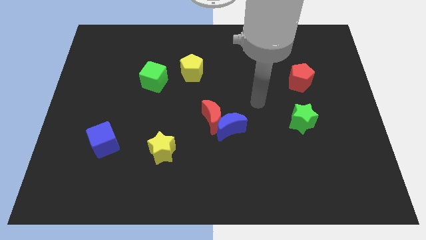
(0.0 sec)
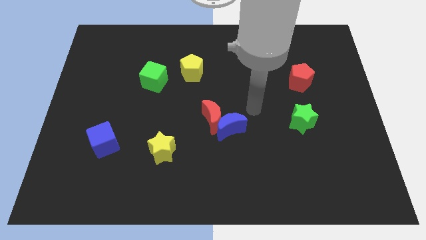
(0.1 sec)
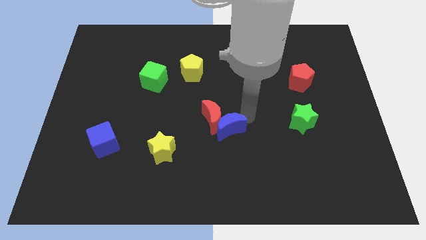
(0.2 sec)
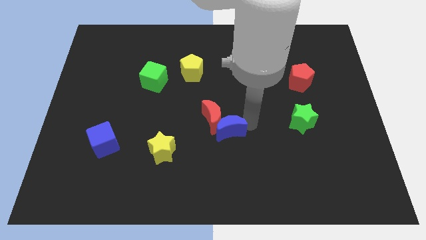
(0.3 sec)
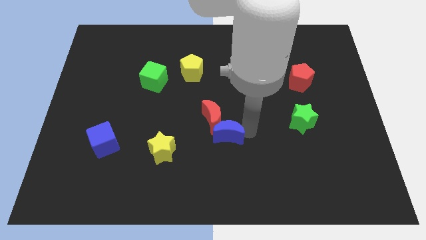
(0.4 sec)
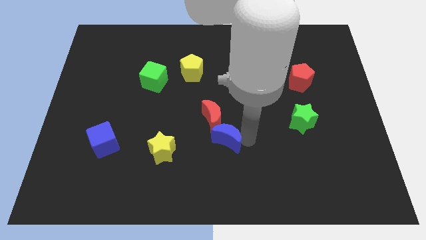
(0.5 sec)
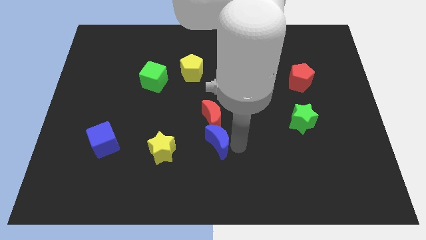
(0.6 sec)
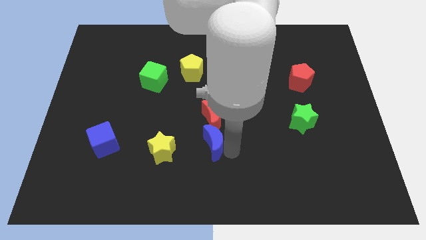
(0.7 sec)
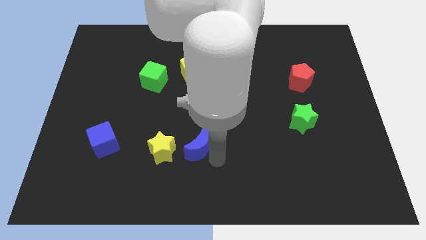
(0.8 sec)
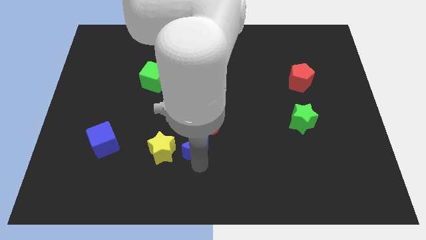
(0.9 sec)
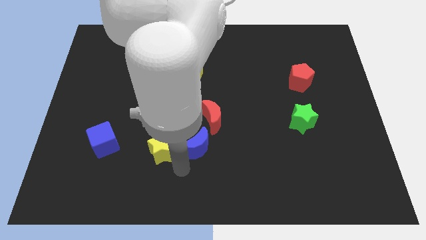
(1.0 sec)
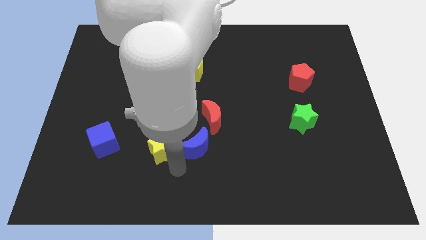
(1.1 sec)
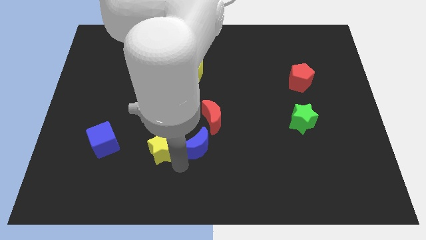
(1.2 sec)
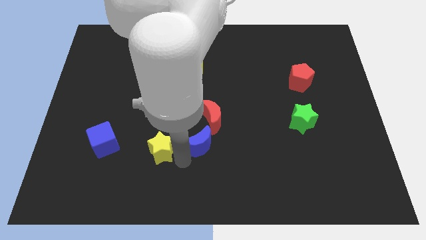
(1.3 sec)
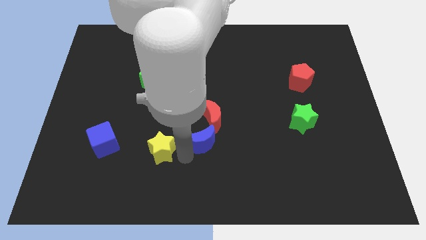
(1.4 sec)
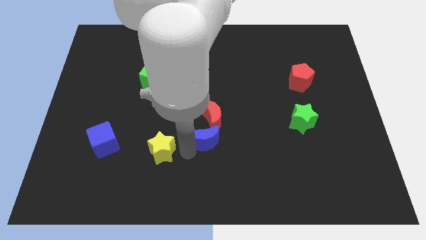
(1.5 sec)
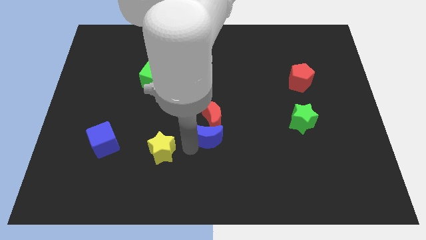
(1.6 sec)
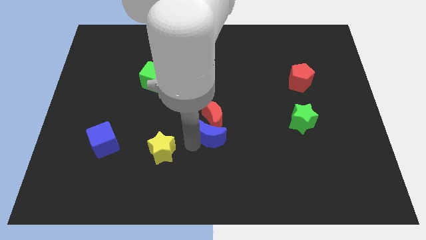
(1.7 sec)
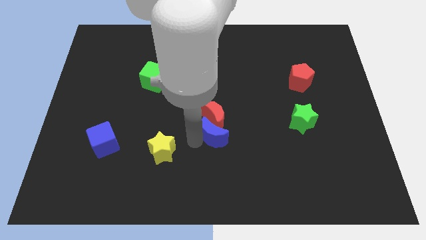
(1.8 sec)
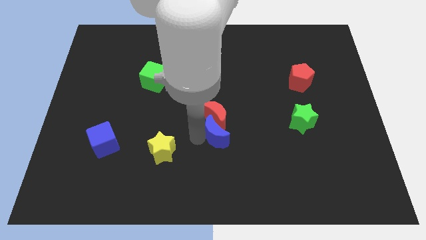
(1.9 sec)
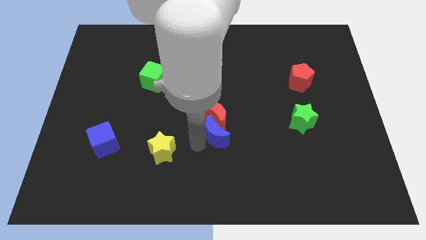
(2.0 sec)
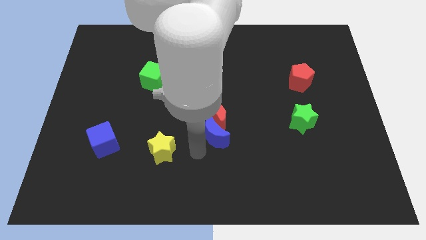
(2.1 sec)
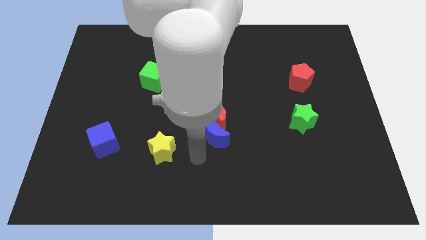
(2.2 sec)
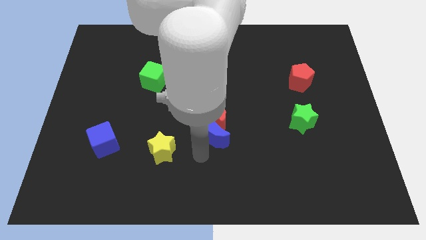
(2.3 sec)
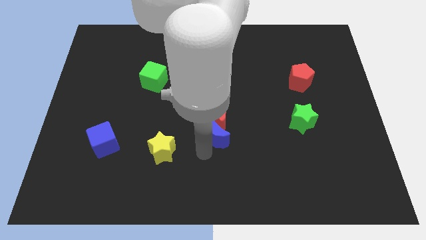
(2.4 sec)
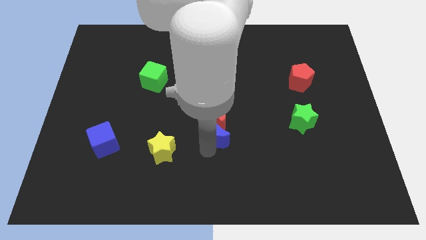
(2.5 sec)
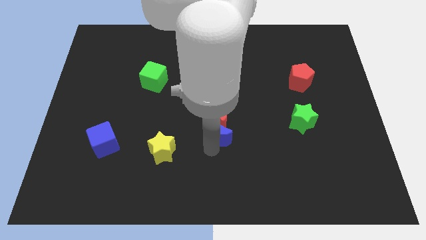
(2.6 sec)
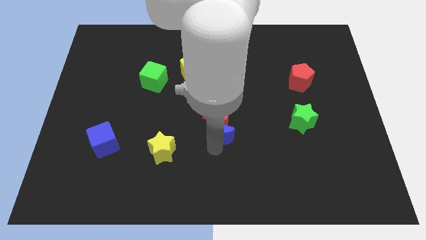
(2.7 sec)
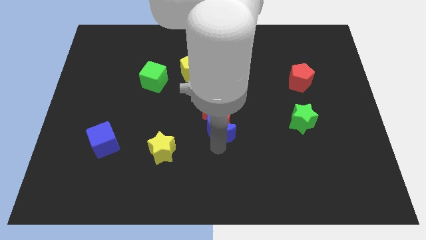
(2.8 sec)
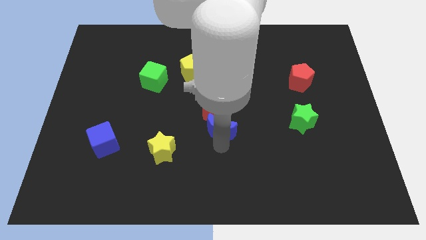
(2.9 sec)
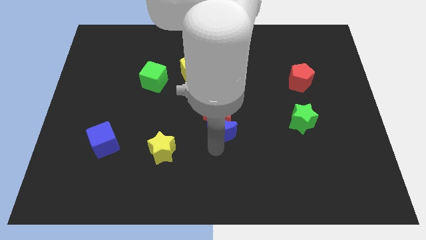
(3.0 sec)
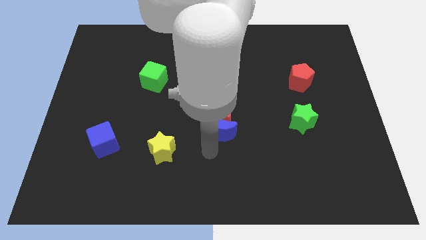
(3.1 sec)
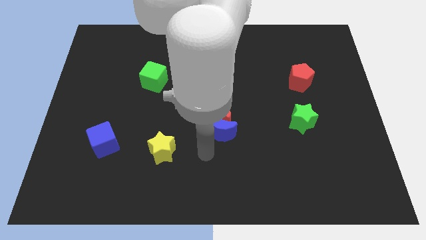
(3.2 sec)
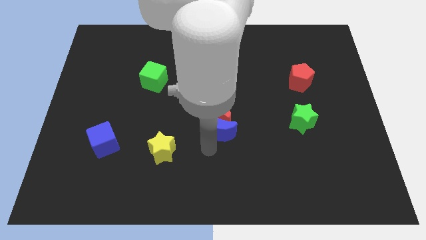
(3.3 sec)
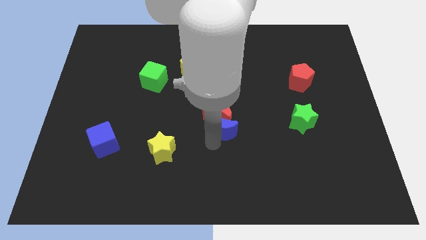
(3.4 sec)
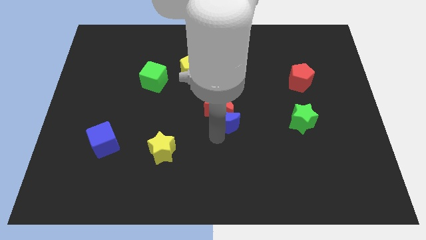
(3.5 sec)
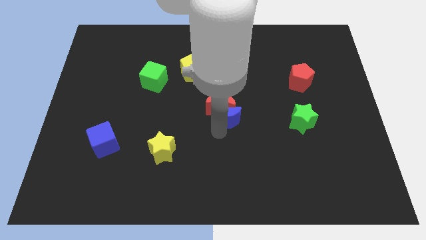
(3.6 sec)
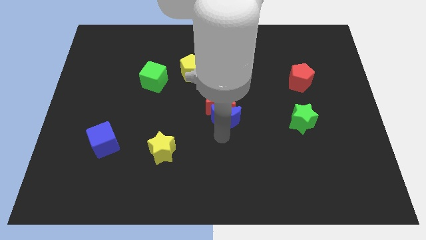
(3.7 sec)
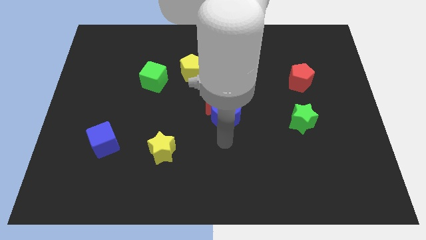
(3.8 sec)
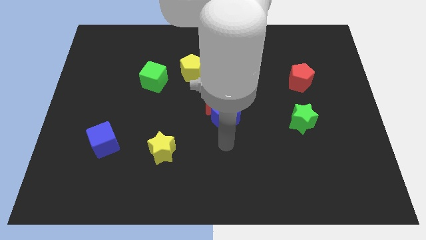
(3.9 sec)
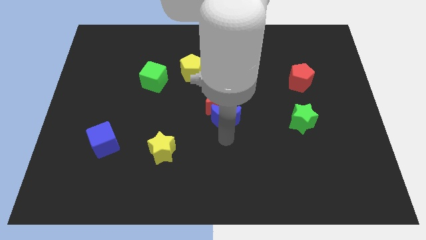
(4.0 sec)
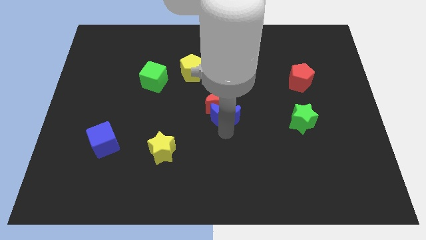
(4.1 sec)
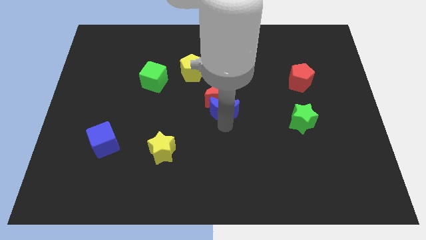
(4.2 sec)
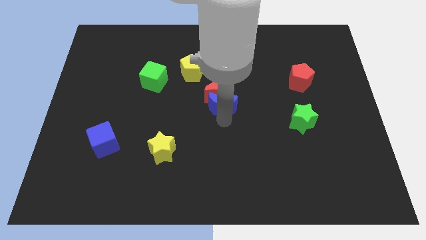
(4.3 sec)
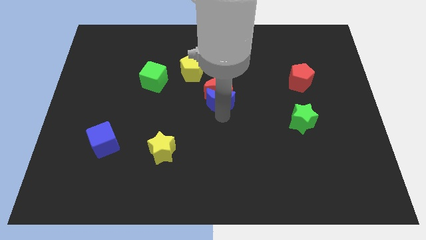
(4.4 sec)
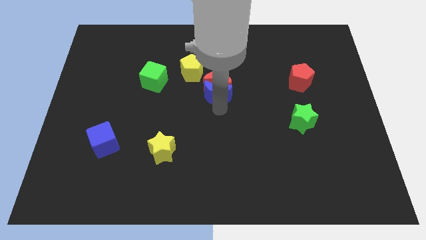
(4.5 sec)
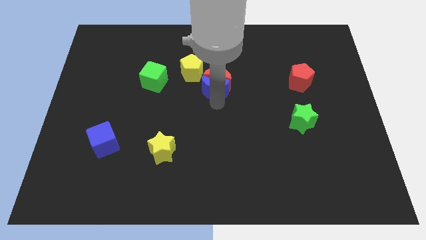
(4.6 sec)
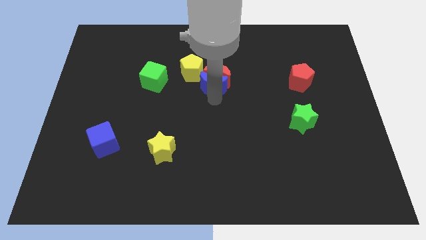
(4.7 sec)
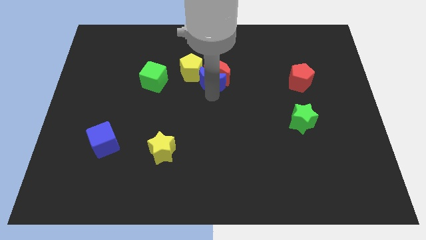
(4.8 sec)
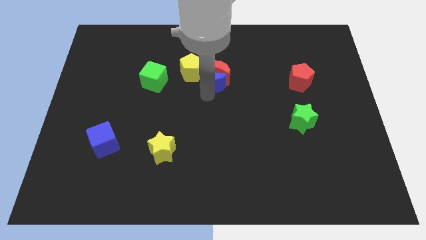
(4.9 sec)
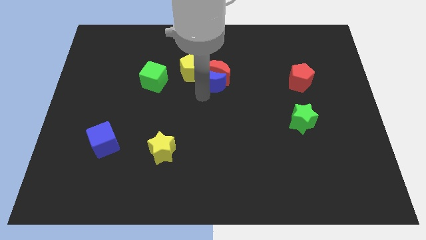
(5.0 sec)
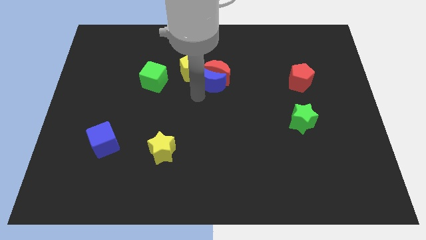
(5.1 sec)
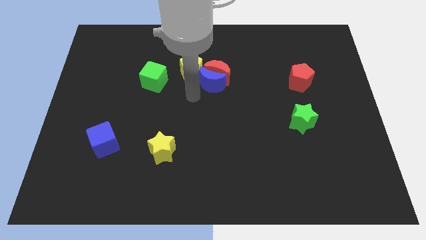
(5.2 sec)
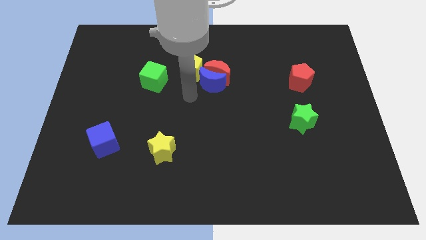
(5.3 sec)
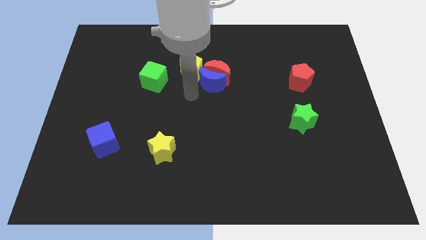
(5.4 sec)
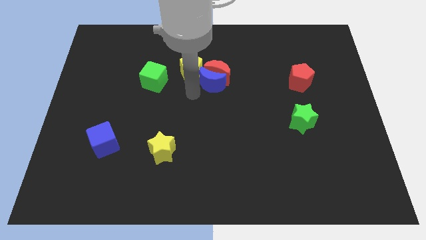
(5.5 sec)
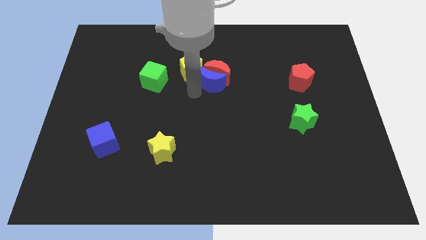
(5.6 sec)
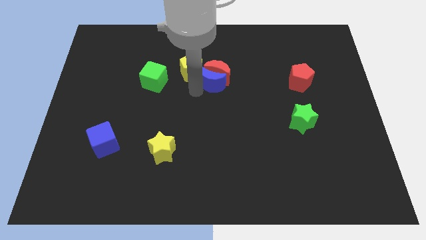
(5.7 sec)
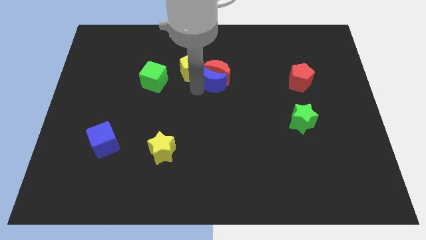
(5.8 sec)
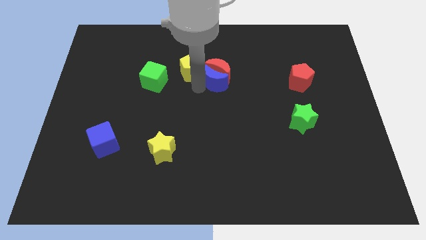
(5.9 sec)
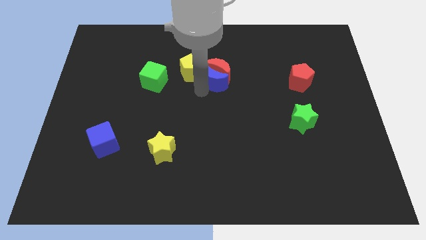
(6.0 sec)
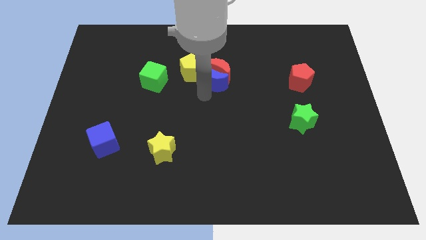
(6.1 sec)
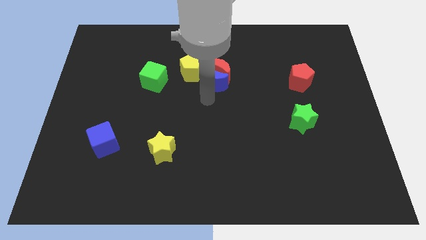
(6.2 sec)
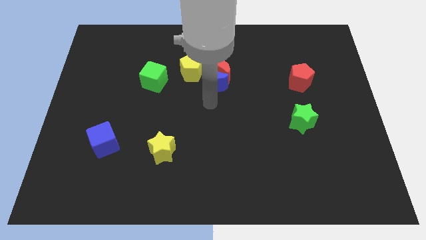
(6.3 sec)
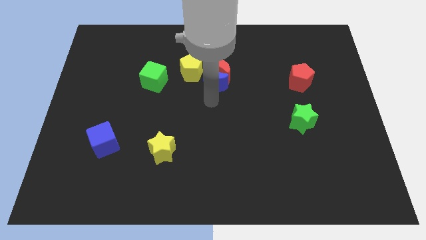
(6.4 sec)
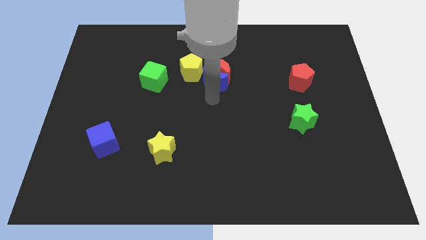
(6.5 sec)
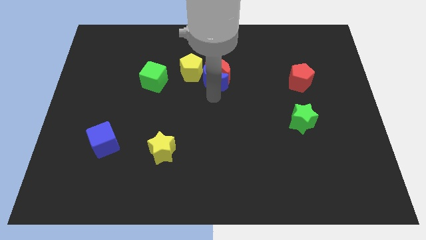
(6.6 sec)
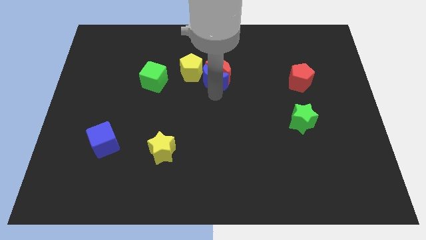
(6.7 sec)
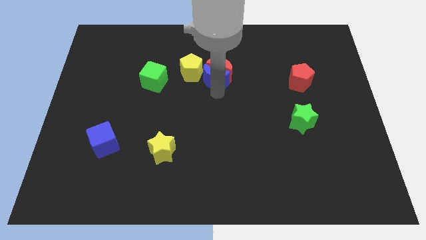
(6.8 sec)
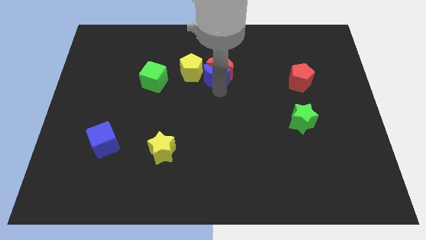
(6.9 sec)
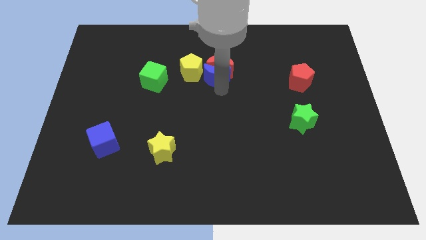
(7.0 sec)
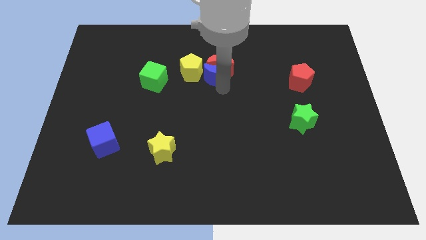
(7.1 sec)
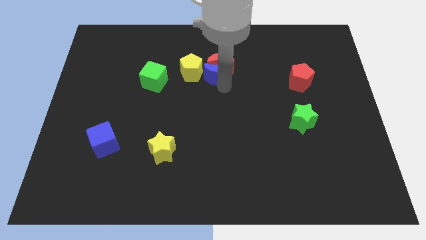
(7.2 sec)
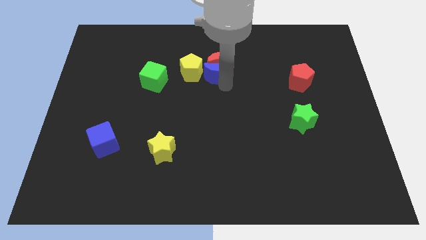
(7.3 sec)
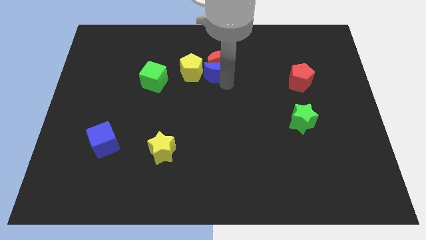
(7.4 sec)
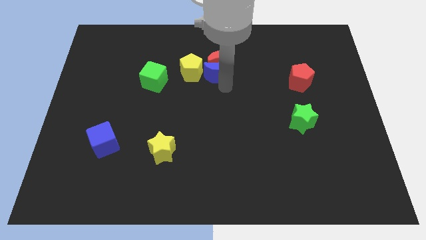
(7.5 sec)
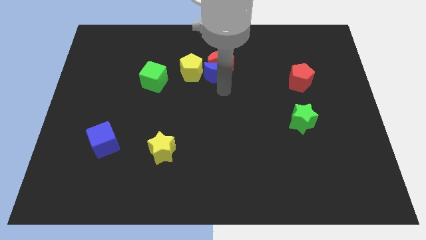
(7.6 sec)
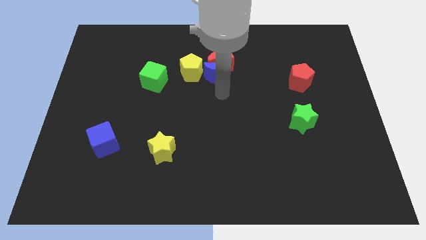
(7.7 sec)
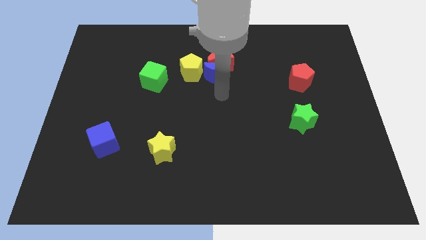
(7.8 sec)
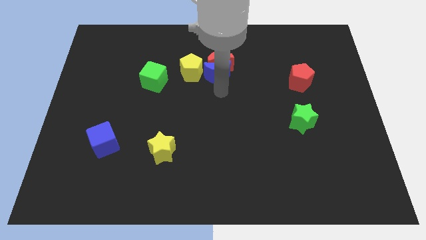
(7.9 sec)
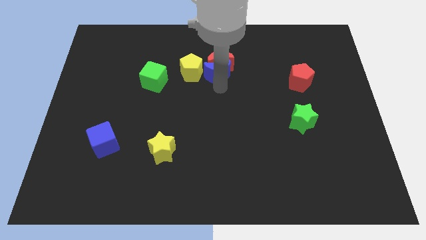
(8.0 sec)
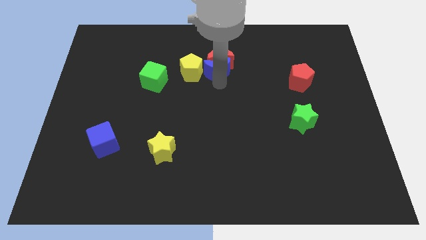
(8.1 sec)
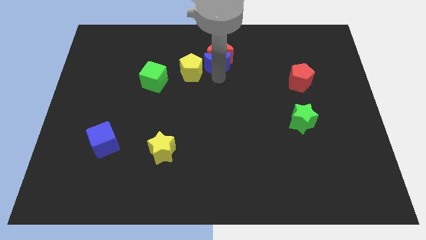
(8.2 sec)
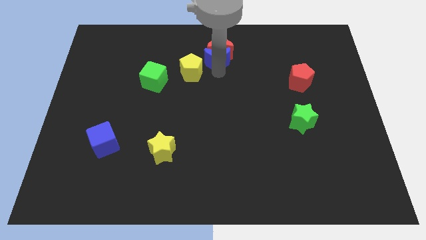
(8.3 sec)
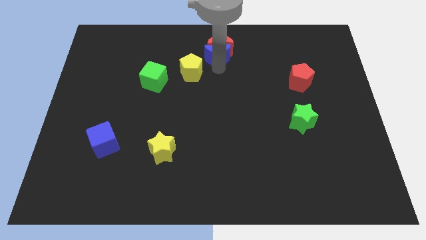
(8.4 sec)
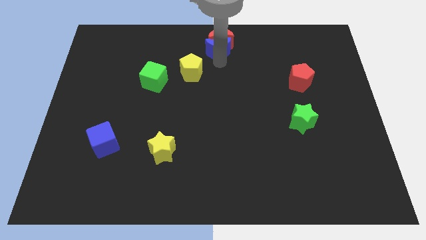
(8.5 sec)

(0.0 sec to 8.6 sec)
move the blue moon to the towards your base
